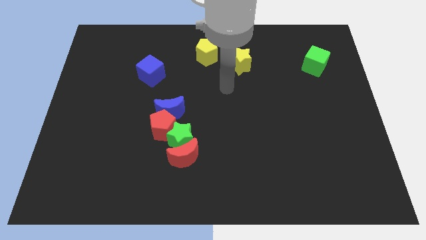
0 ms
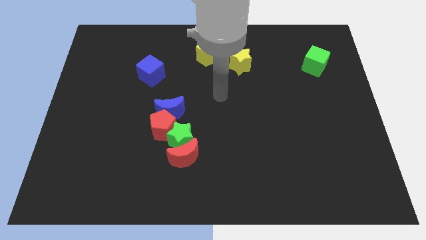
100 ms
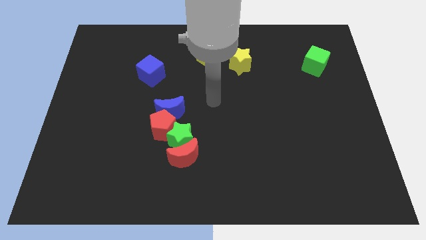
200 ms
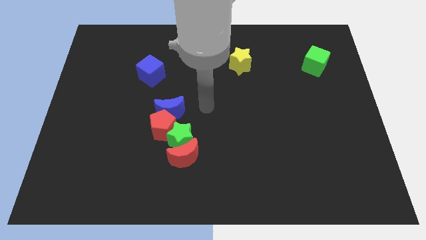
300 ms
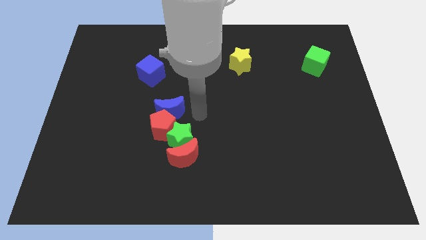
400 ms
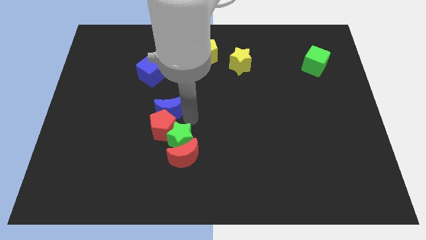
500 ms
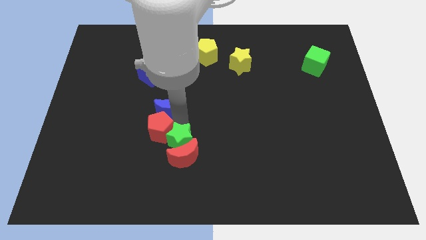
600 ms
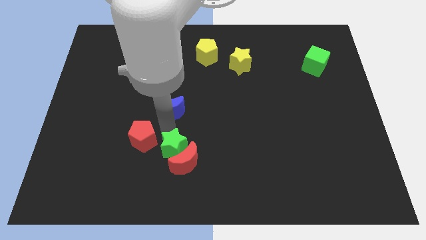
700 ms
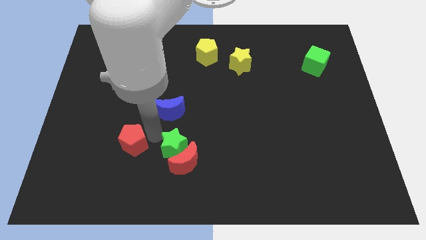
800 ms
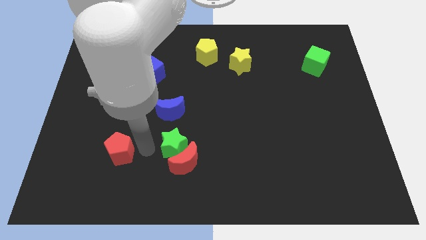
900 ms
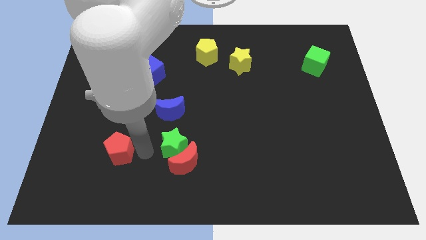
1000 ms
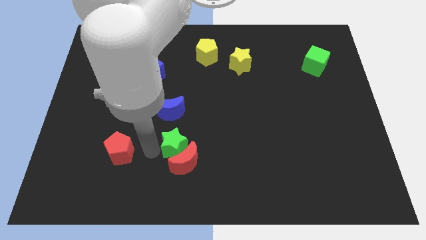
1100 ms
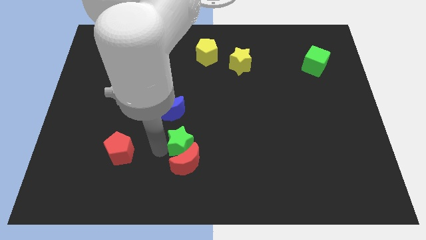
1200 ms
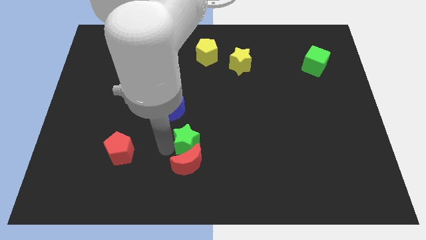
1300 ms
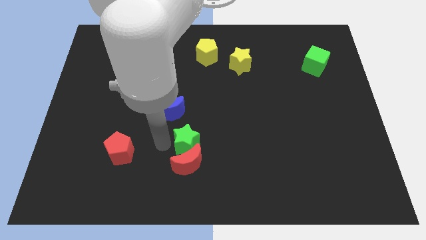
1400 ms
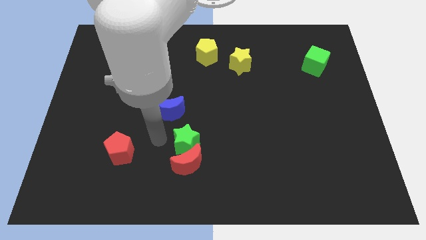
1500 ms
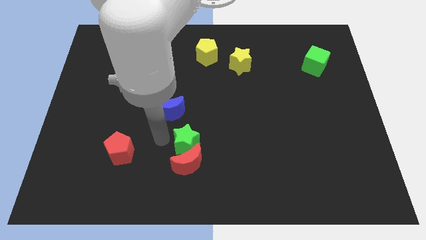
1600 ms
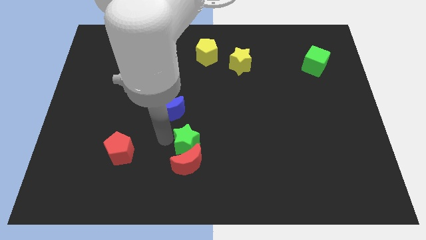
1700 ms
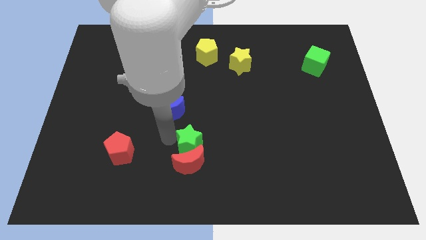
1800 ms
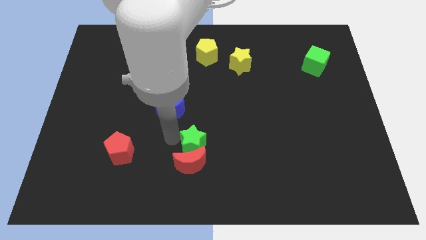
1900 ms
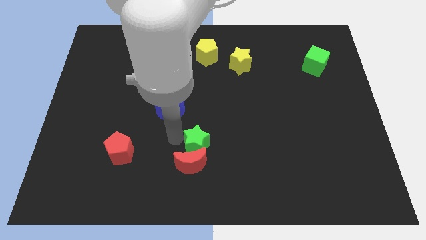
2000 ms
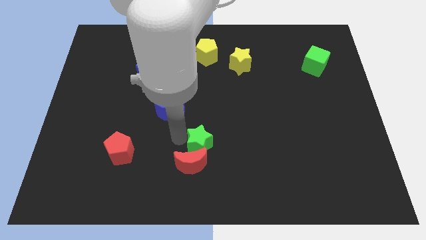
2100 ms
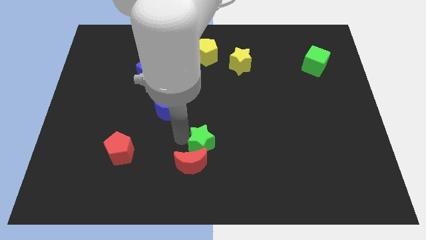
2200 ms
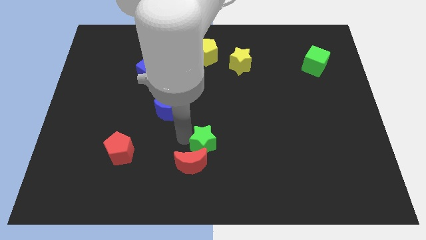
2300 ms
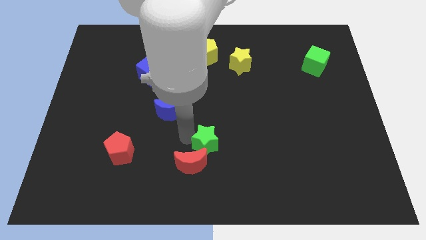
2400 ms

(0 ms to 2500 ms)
pull the green star apart from the clump

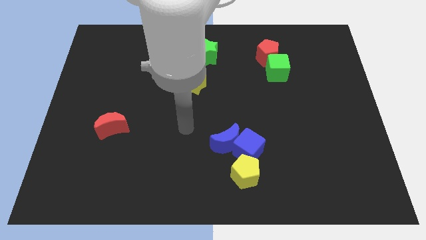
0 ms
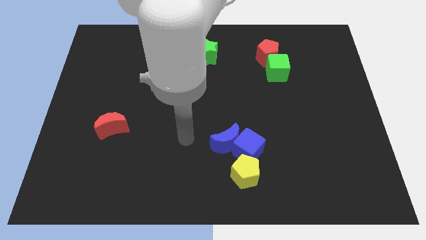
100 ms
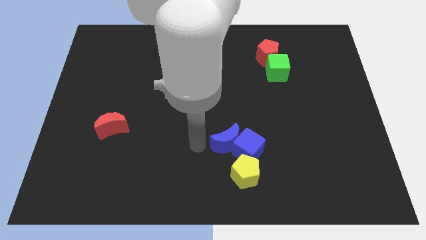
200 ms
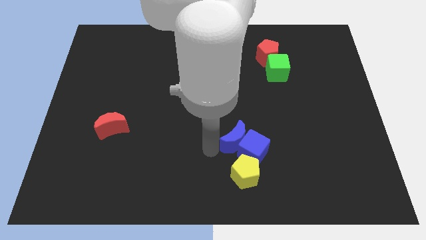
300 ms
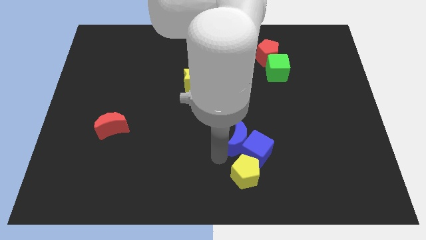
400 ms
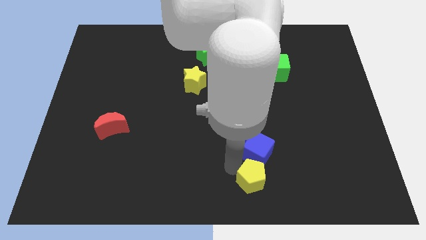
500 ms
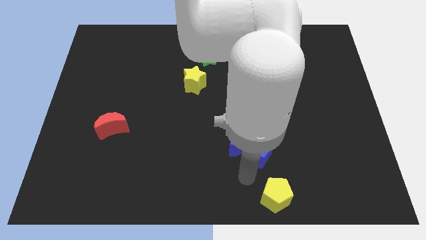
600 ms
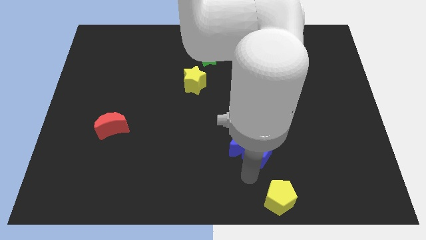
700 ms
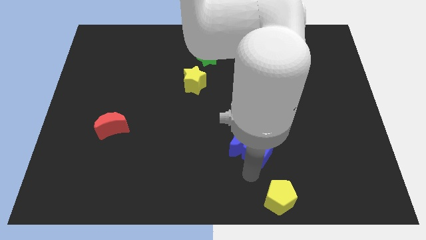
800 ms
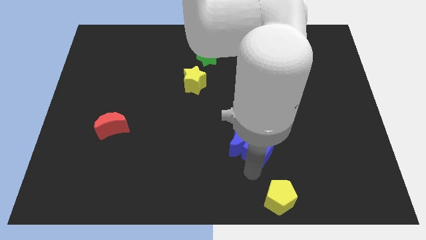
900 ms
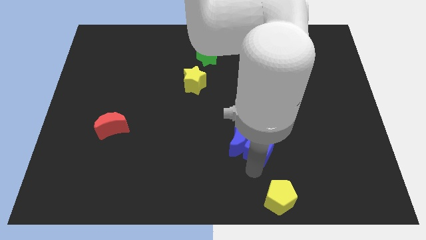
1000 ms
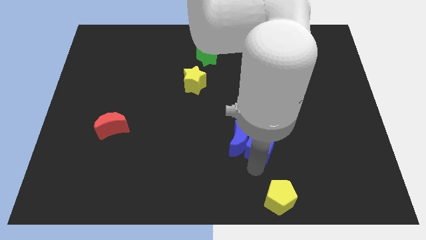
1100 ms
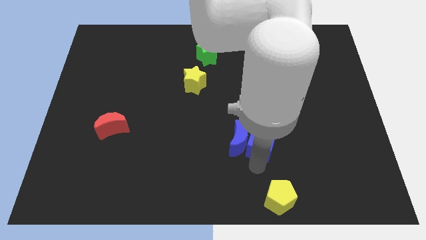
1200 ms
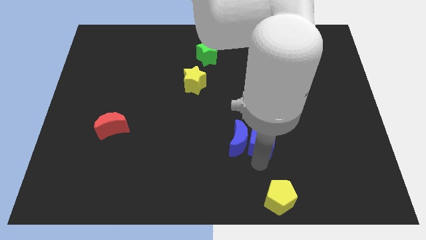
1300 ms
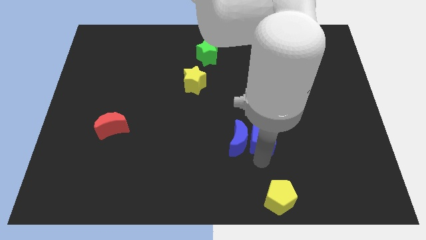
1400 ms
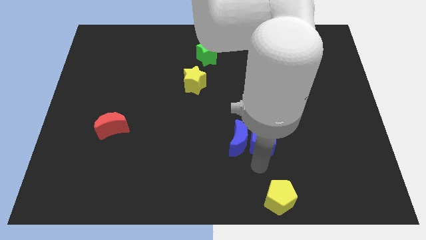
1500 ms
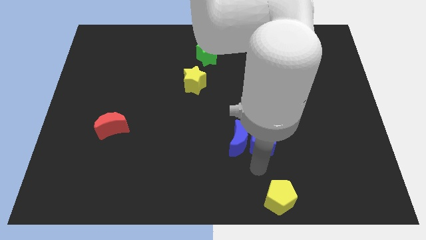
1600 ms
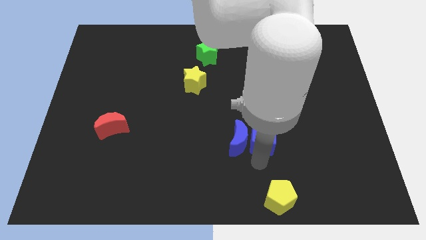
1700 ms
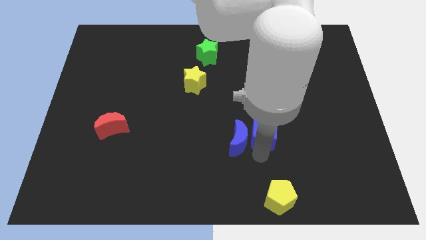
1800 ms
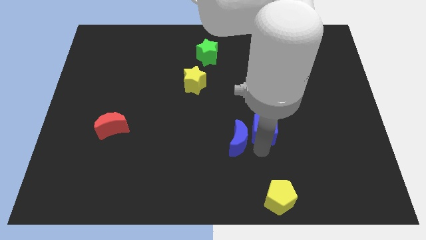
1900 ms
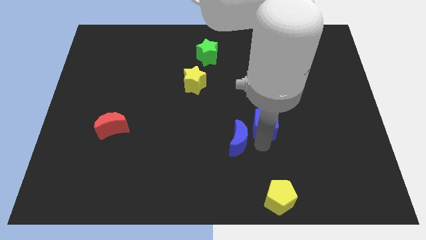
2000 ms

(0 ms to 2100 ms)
move the blue cube away from the blue moon and yellow pentagon

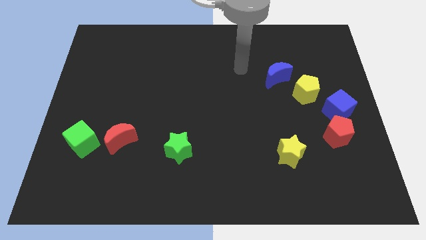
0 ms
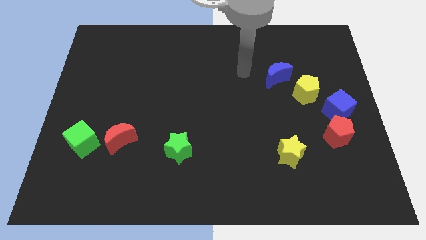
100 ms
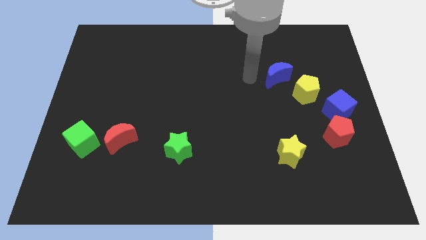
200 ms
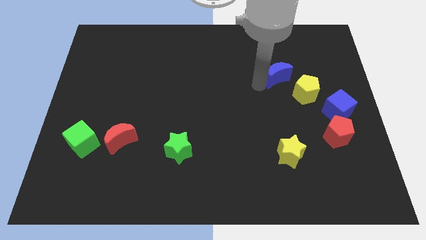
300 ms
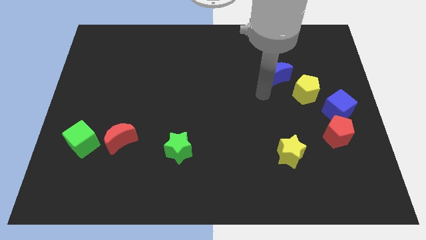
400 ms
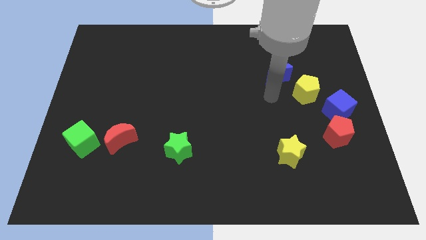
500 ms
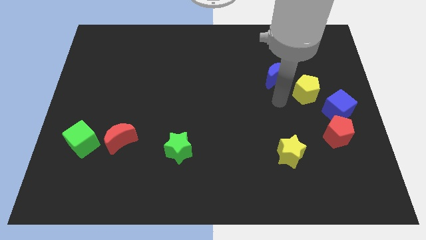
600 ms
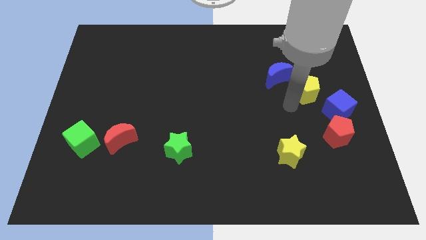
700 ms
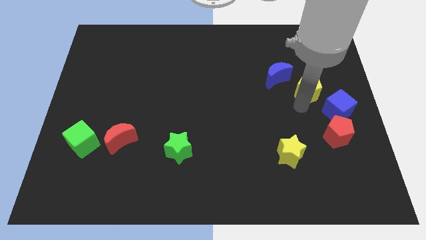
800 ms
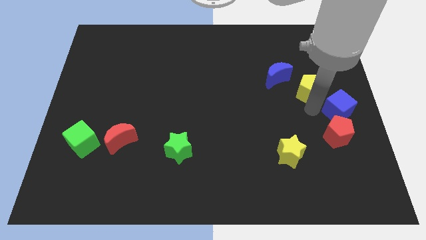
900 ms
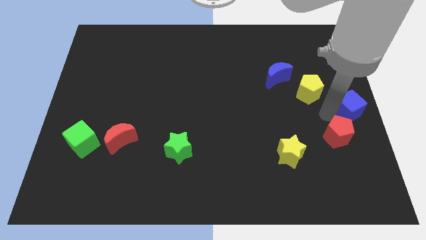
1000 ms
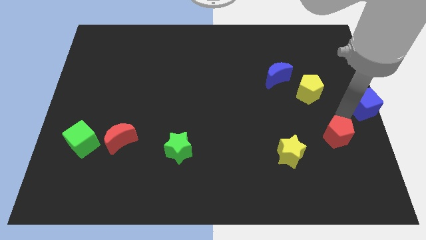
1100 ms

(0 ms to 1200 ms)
move the red pentagon away from the blue cube

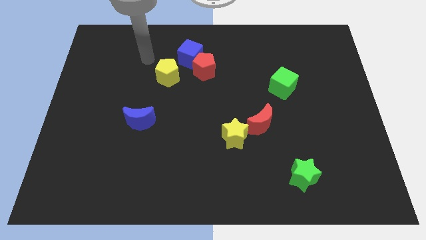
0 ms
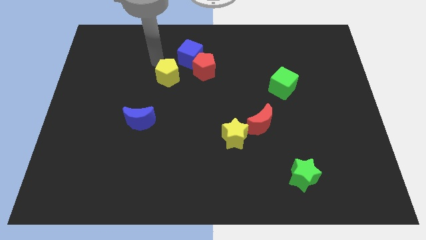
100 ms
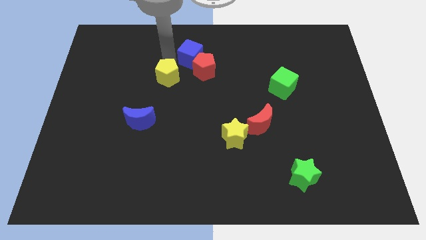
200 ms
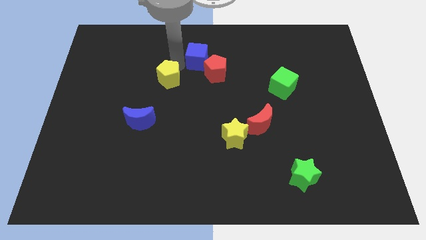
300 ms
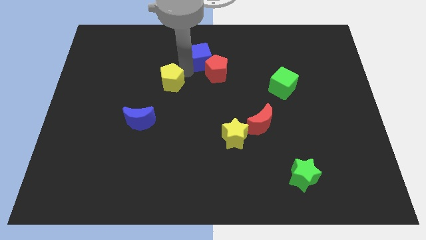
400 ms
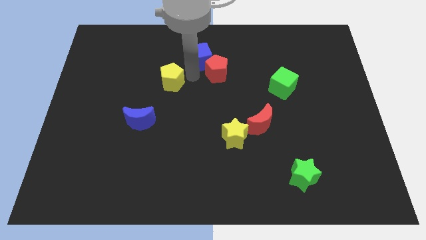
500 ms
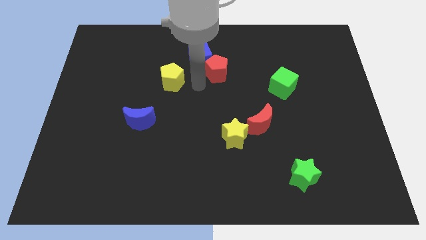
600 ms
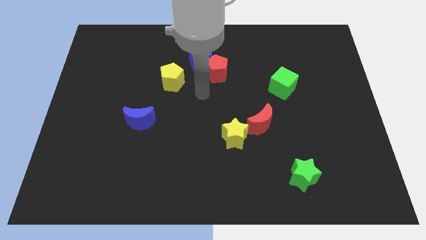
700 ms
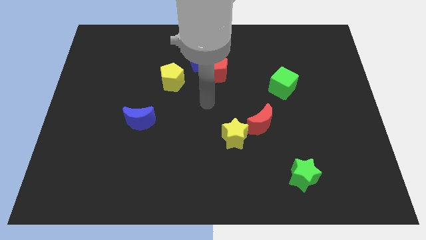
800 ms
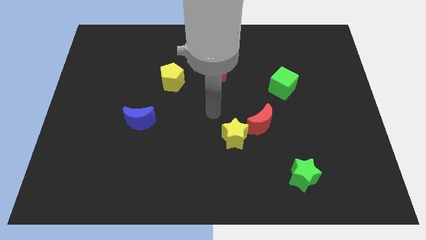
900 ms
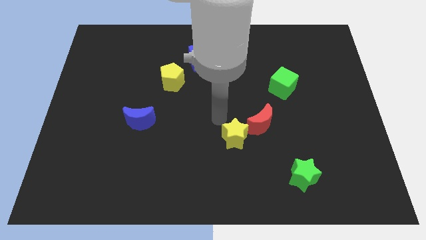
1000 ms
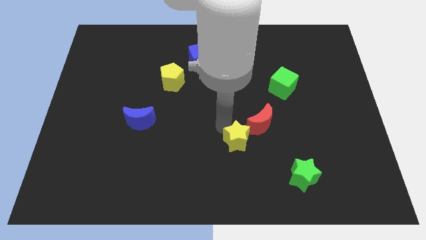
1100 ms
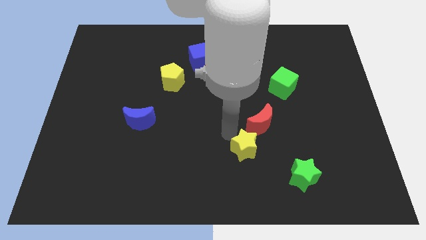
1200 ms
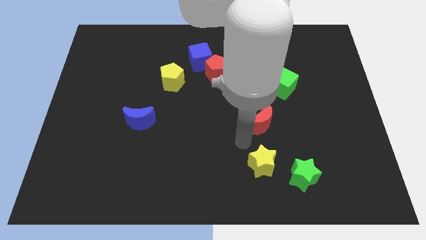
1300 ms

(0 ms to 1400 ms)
separate the red moon from the yellow star

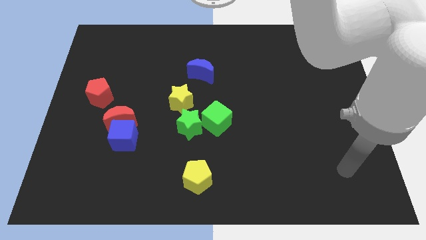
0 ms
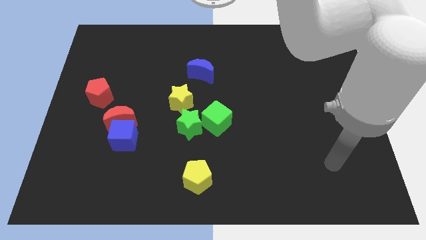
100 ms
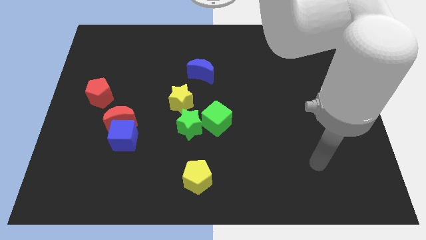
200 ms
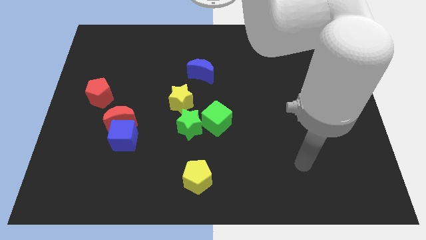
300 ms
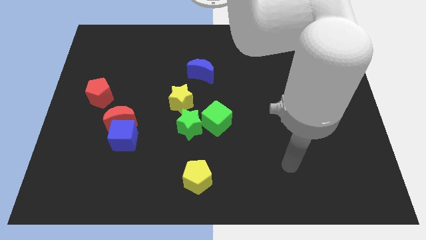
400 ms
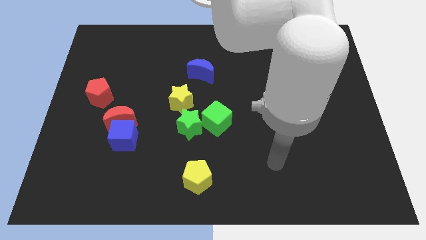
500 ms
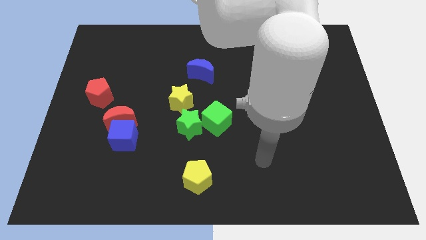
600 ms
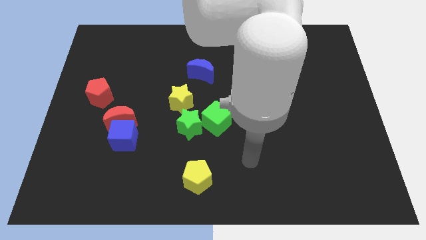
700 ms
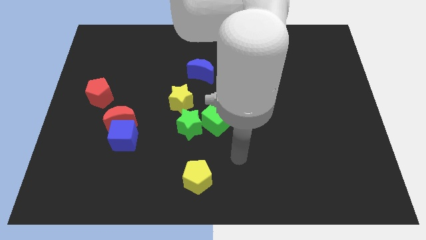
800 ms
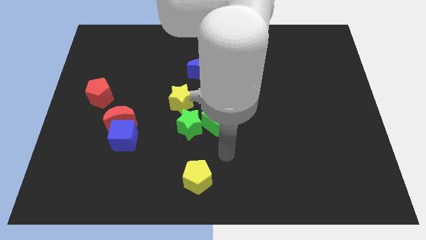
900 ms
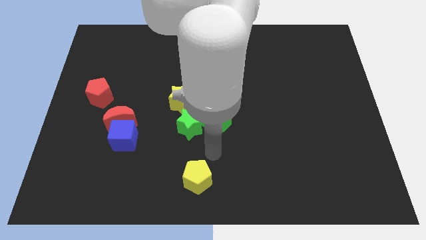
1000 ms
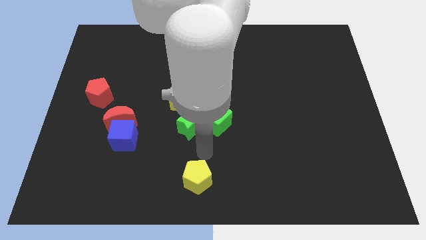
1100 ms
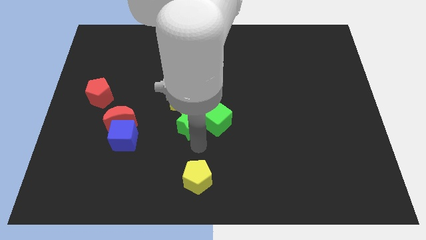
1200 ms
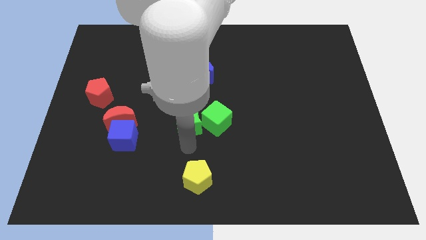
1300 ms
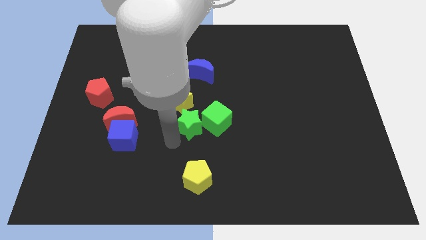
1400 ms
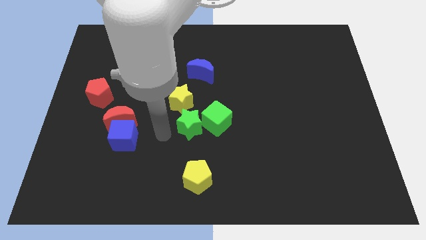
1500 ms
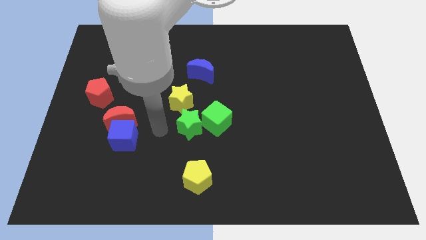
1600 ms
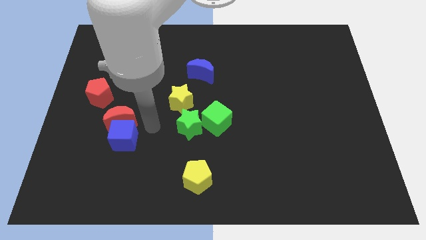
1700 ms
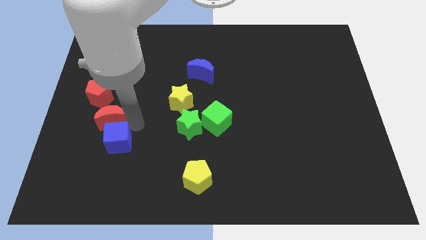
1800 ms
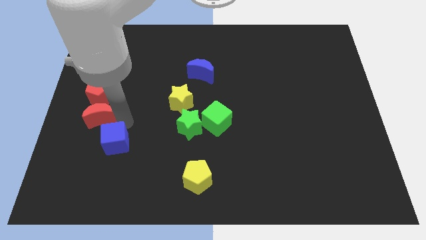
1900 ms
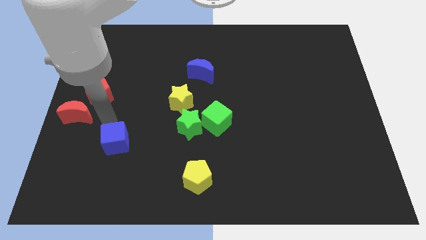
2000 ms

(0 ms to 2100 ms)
pull the blue cube apart from the red moon
